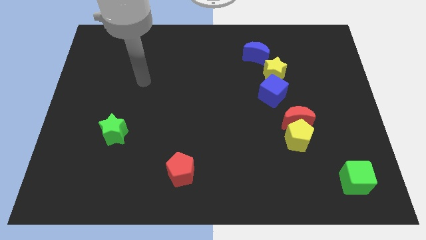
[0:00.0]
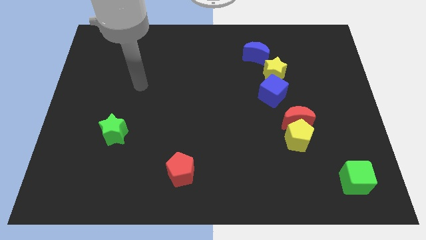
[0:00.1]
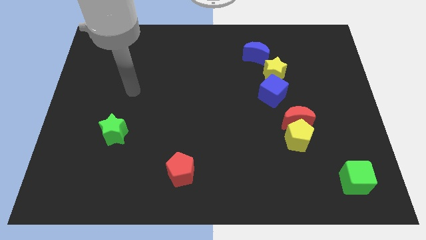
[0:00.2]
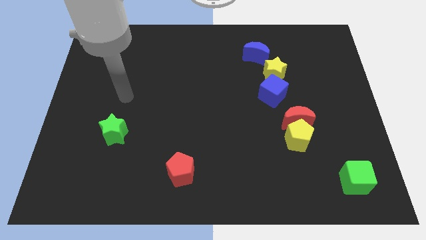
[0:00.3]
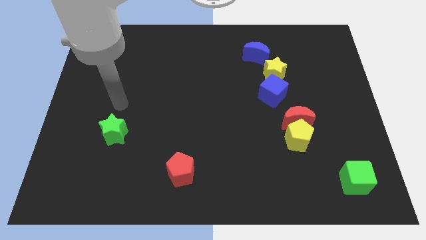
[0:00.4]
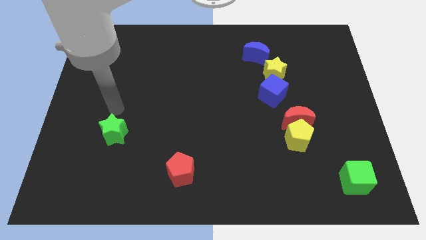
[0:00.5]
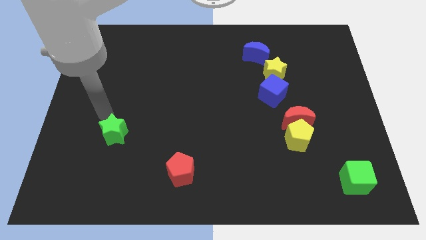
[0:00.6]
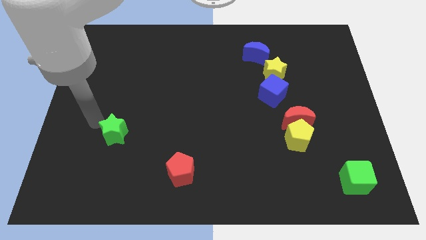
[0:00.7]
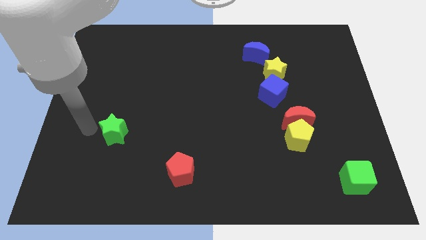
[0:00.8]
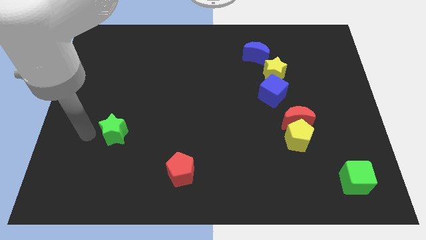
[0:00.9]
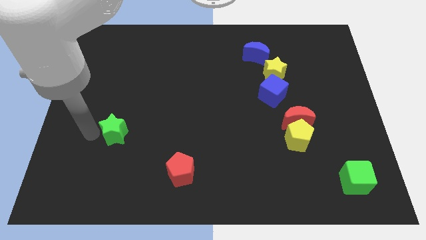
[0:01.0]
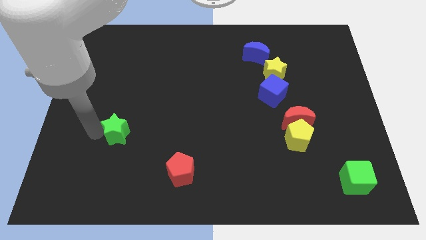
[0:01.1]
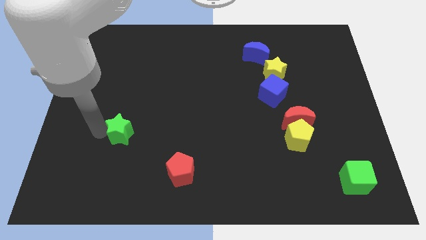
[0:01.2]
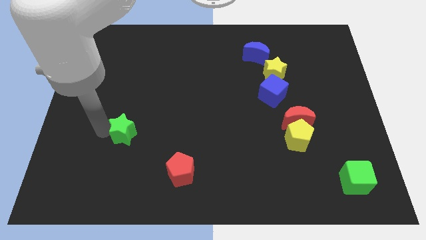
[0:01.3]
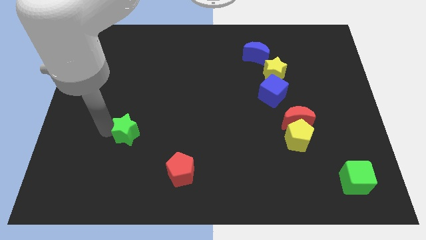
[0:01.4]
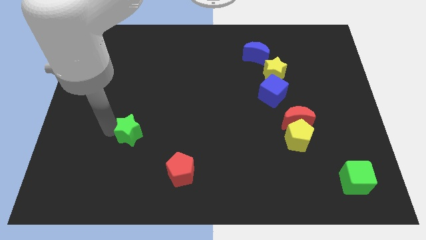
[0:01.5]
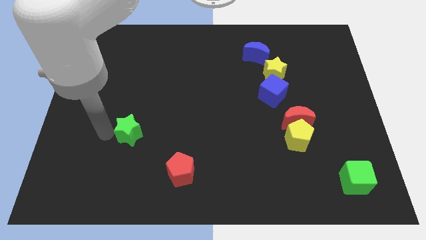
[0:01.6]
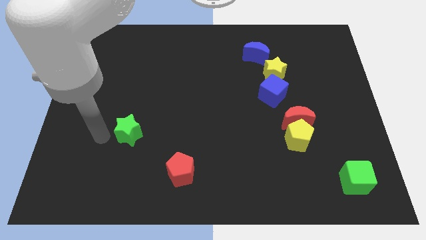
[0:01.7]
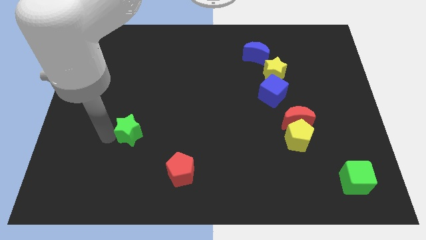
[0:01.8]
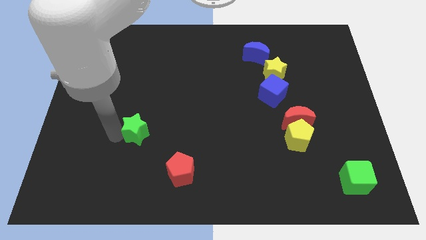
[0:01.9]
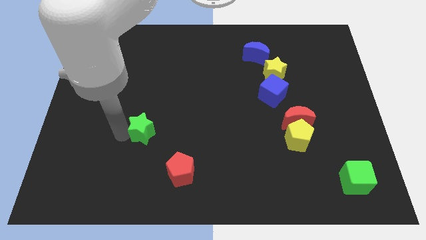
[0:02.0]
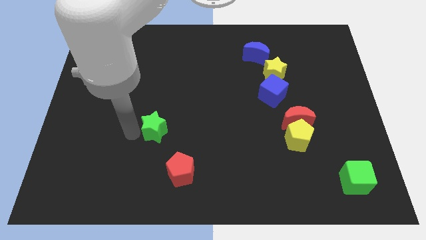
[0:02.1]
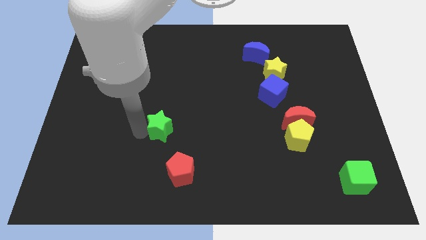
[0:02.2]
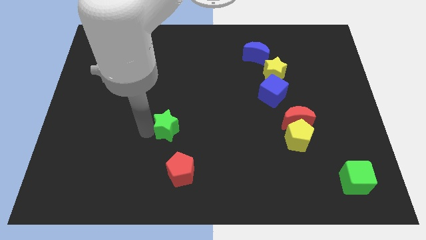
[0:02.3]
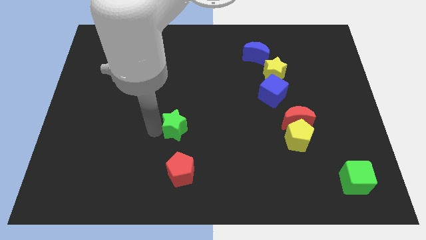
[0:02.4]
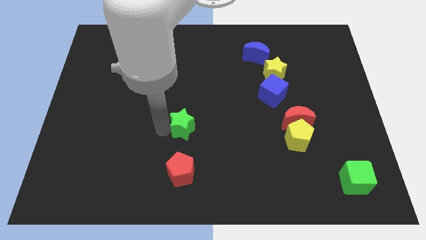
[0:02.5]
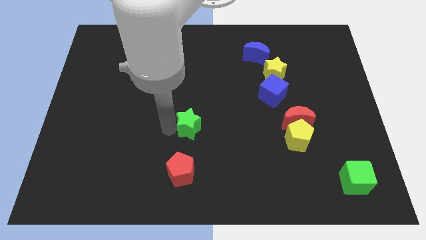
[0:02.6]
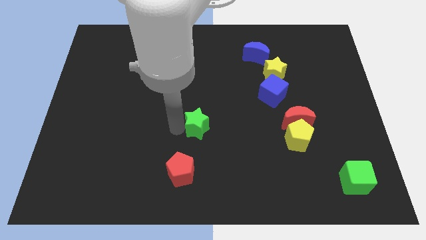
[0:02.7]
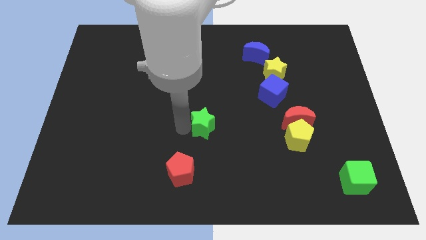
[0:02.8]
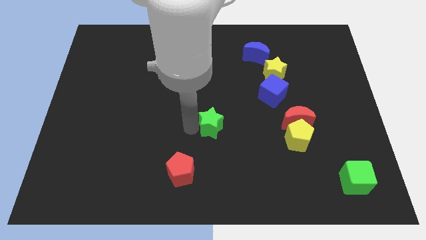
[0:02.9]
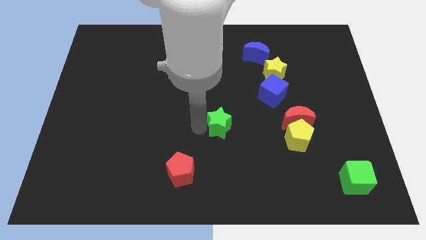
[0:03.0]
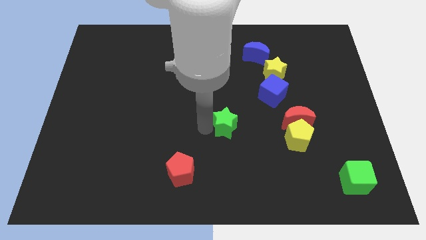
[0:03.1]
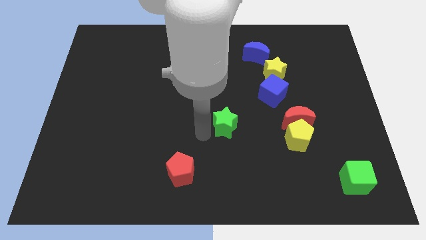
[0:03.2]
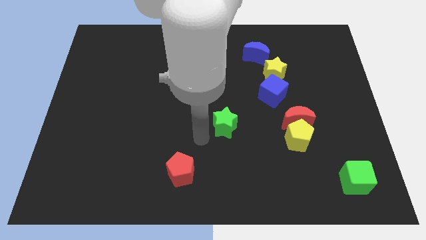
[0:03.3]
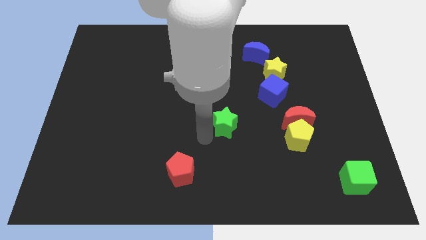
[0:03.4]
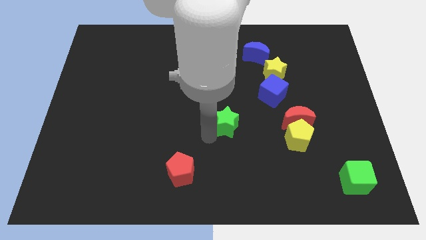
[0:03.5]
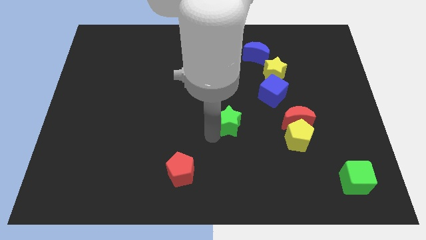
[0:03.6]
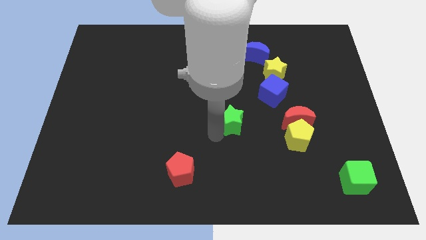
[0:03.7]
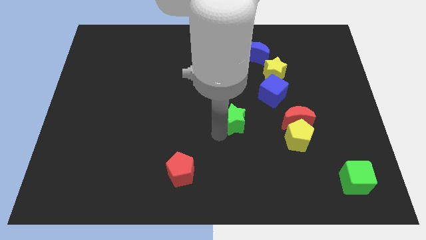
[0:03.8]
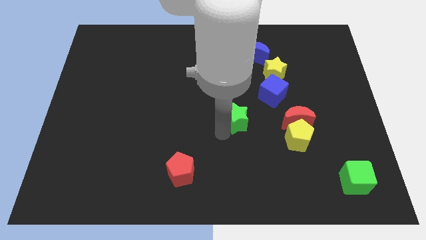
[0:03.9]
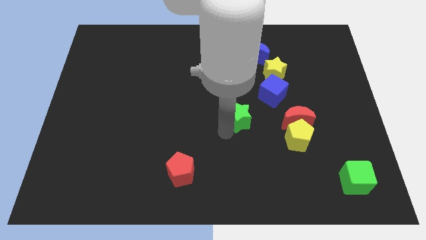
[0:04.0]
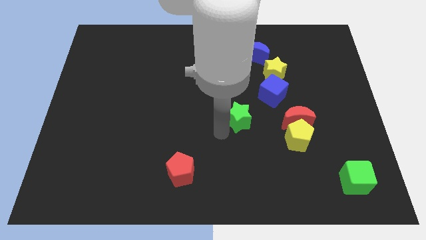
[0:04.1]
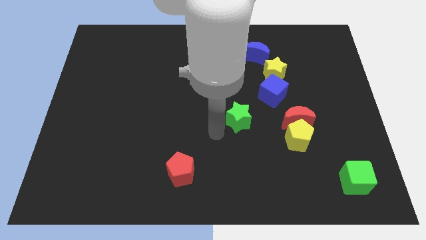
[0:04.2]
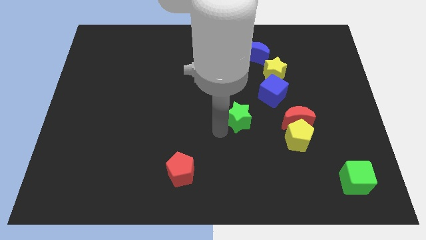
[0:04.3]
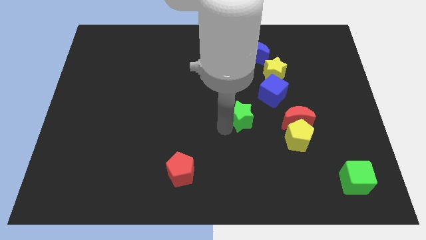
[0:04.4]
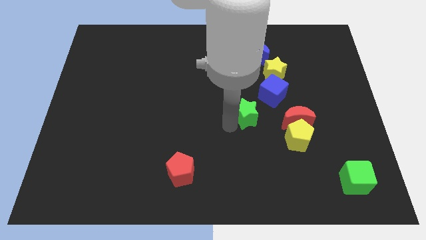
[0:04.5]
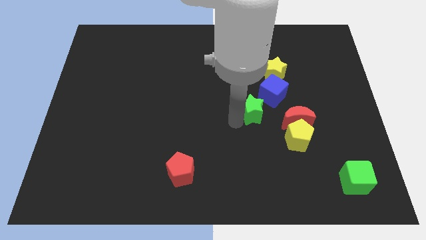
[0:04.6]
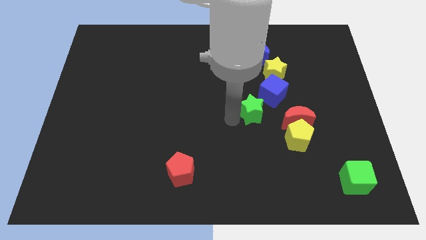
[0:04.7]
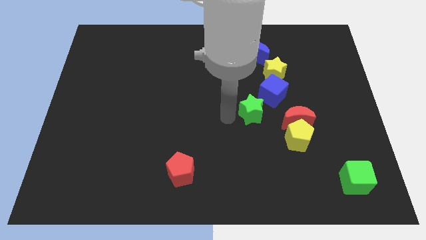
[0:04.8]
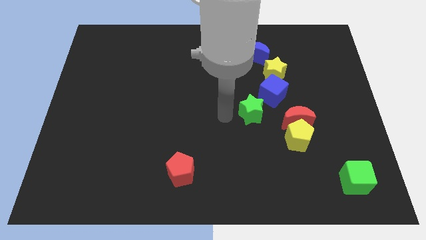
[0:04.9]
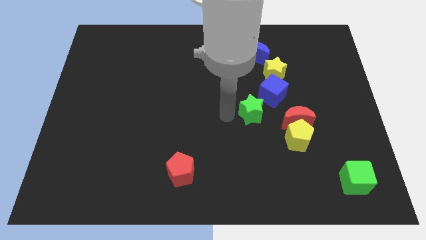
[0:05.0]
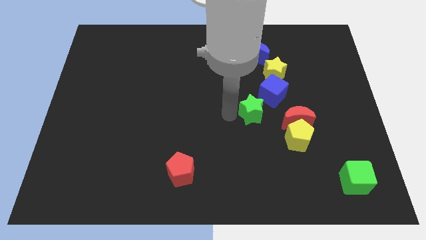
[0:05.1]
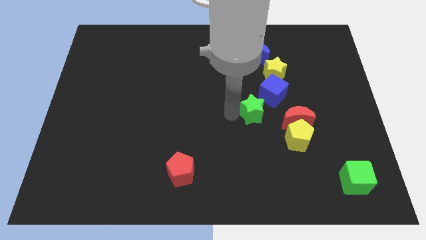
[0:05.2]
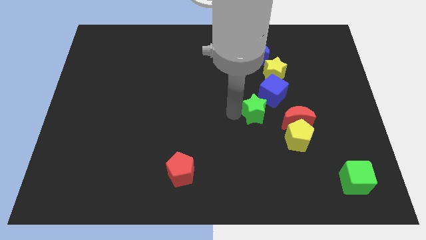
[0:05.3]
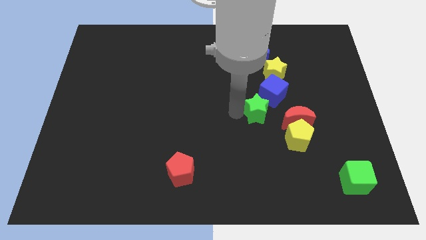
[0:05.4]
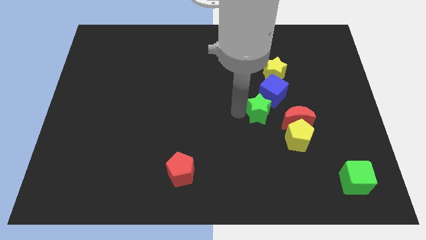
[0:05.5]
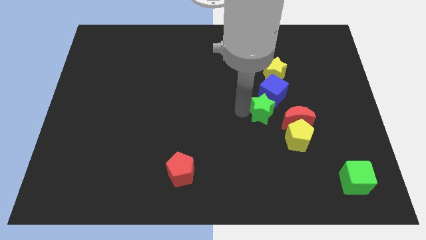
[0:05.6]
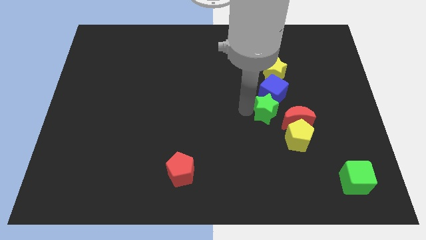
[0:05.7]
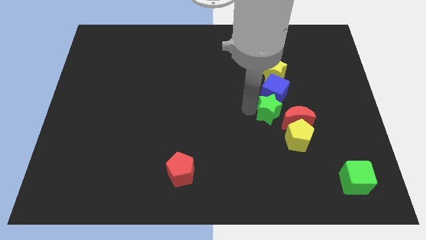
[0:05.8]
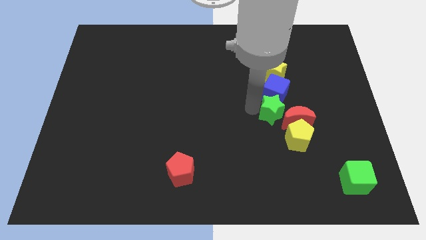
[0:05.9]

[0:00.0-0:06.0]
push the green star towards the red moon

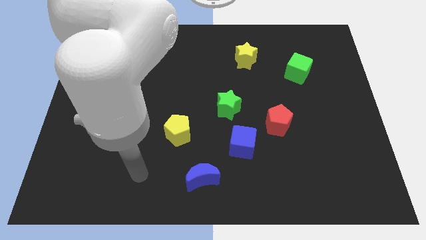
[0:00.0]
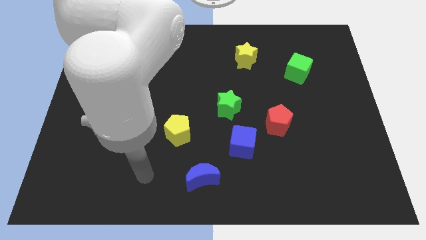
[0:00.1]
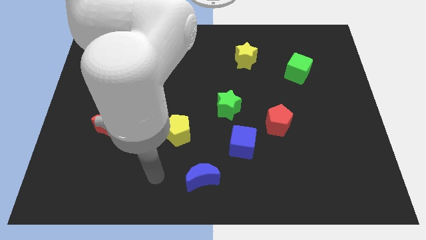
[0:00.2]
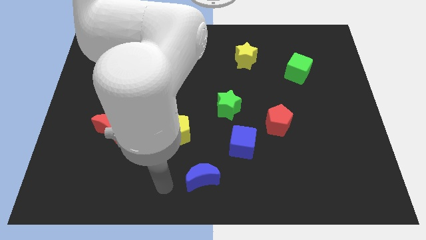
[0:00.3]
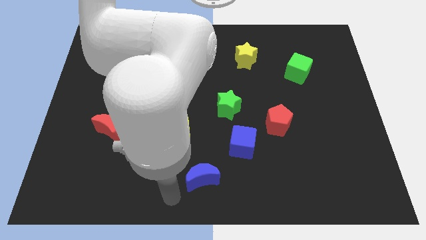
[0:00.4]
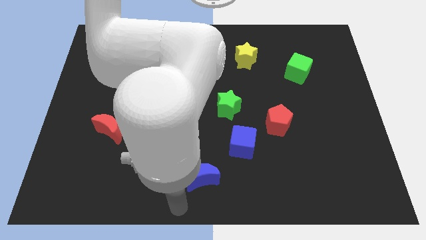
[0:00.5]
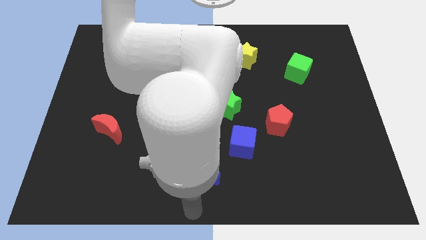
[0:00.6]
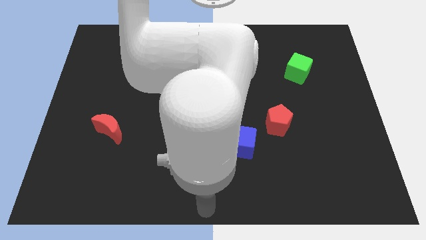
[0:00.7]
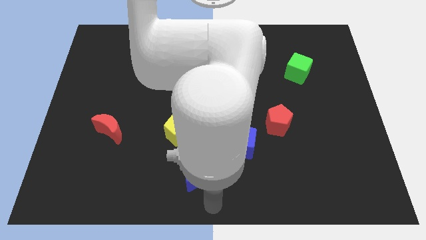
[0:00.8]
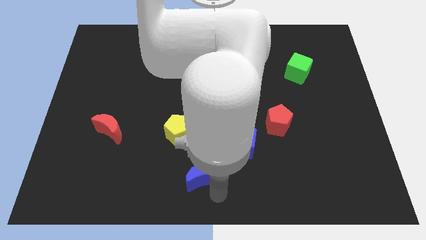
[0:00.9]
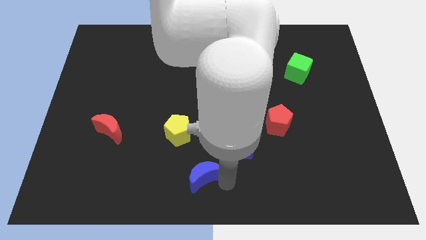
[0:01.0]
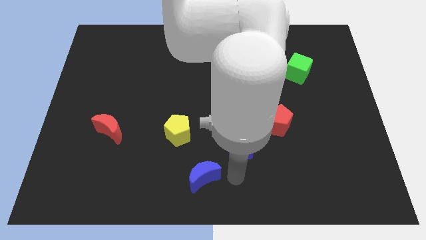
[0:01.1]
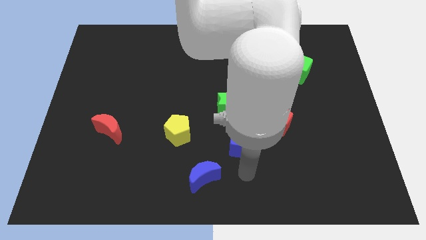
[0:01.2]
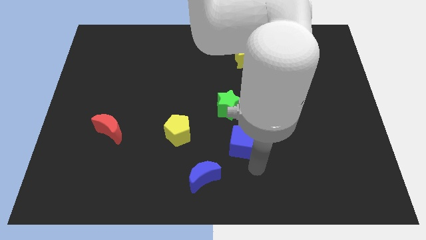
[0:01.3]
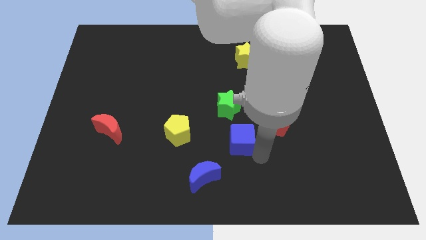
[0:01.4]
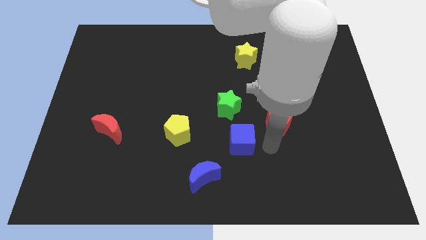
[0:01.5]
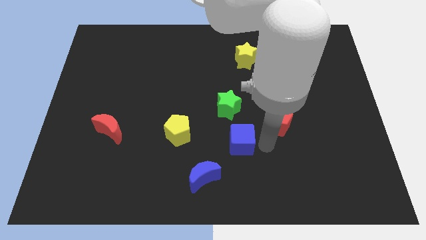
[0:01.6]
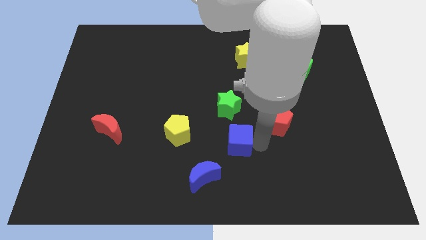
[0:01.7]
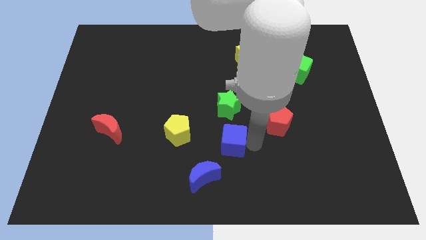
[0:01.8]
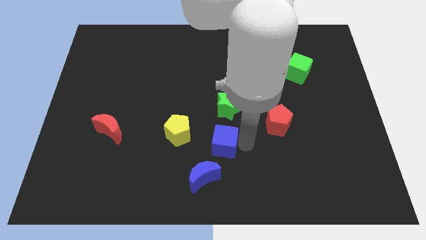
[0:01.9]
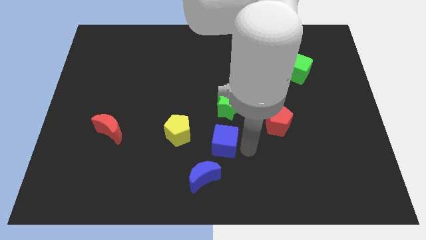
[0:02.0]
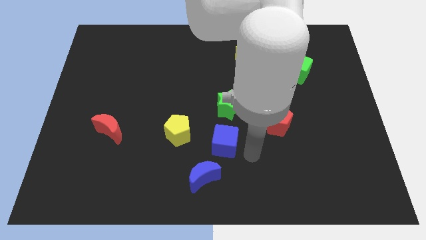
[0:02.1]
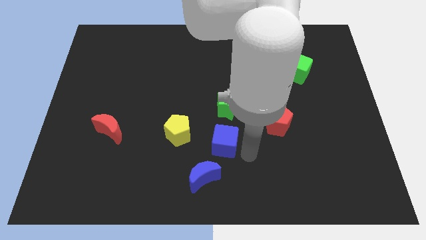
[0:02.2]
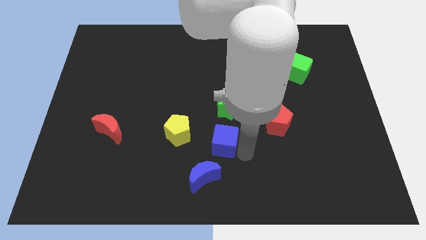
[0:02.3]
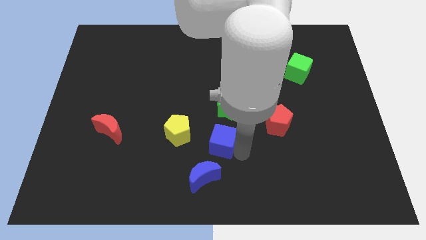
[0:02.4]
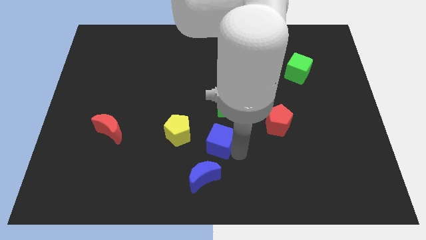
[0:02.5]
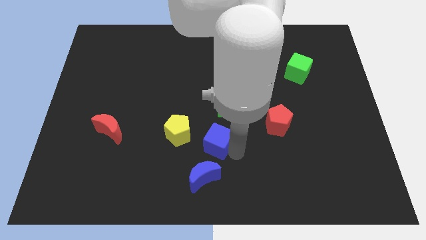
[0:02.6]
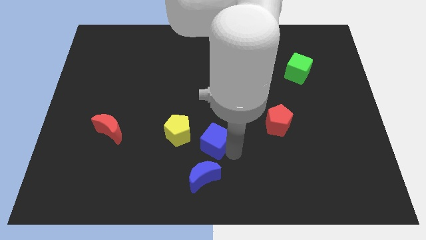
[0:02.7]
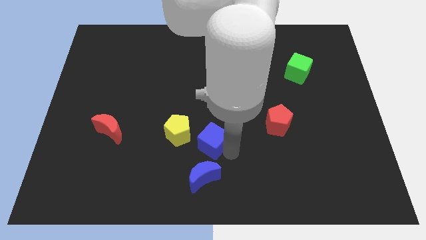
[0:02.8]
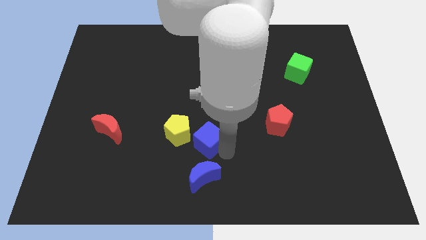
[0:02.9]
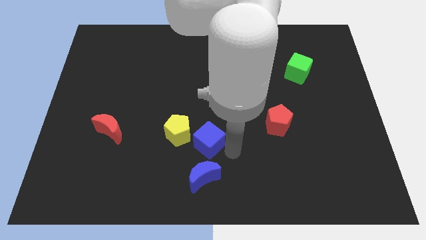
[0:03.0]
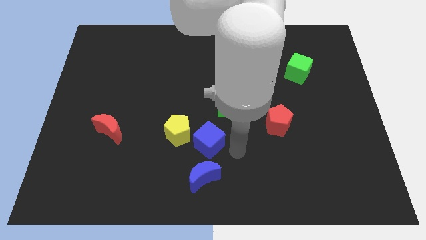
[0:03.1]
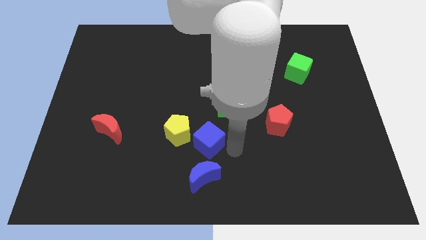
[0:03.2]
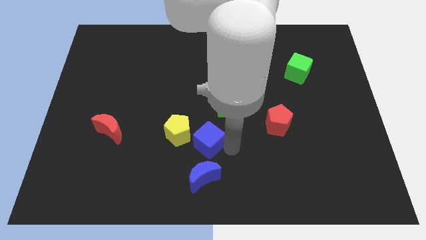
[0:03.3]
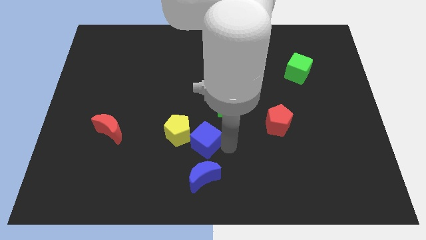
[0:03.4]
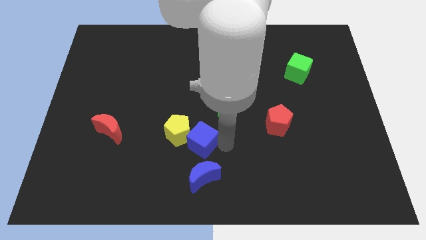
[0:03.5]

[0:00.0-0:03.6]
move the blue cube close to the yellow pentagon
